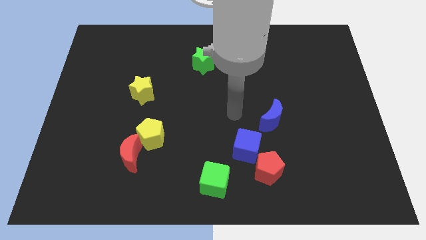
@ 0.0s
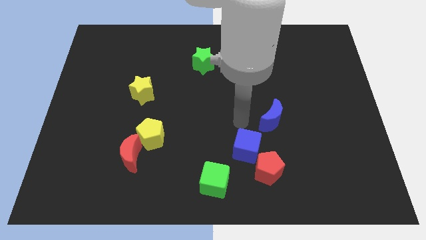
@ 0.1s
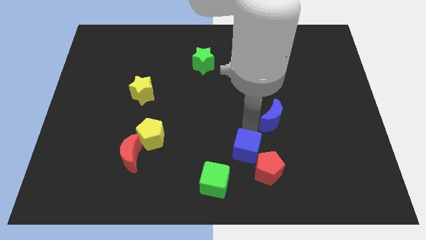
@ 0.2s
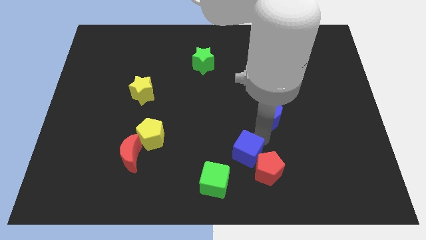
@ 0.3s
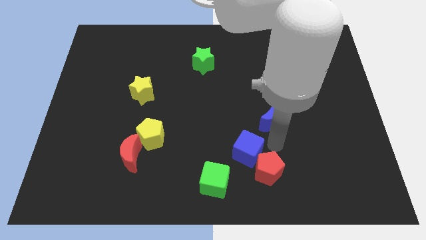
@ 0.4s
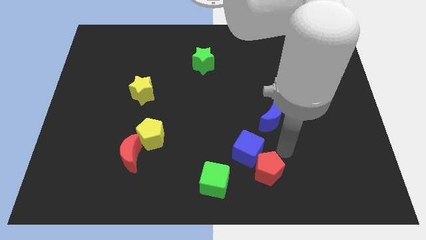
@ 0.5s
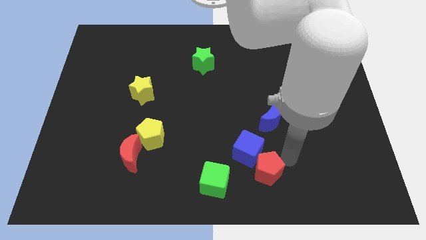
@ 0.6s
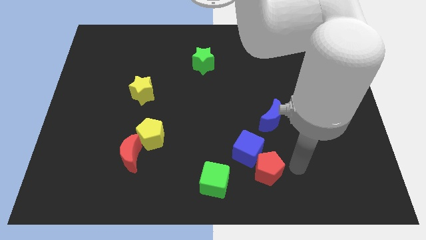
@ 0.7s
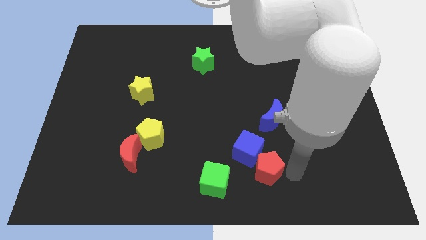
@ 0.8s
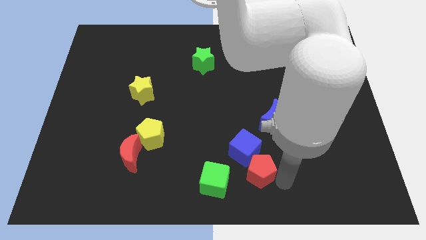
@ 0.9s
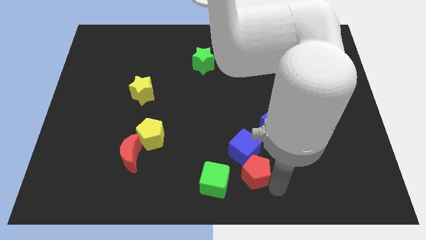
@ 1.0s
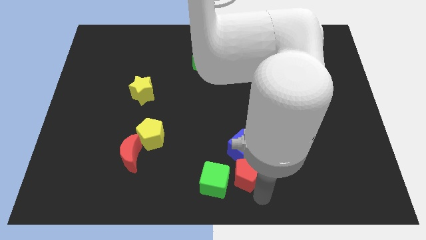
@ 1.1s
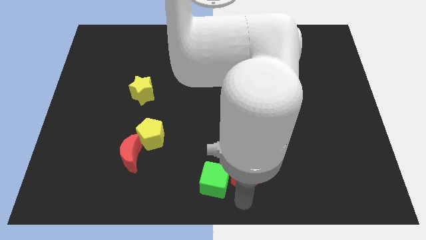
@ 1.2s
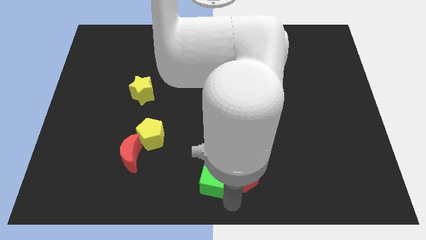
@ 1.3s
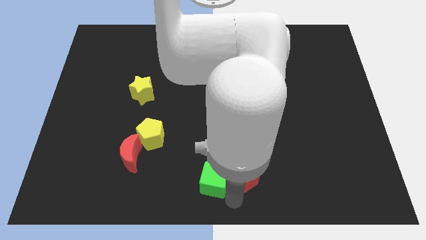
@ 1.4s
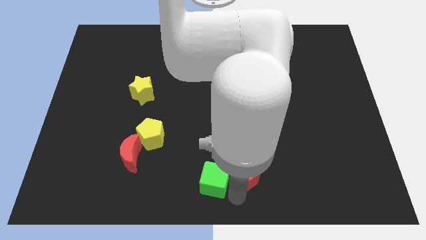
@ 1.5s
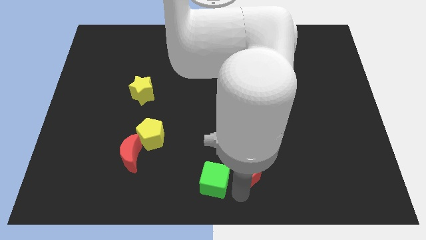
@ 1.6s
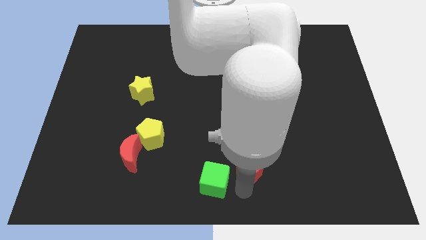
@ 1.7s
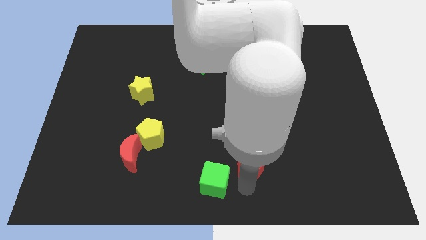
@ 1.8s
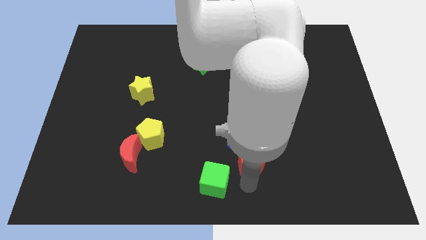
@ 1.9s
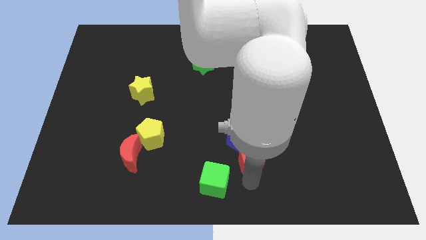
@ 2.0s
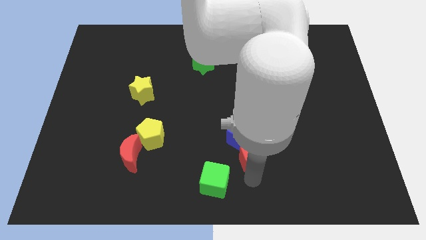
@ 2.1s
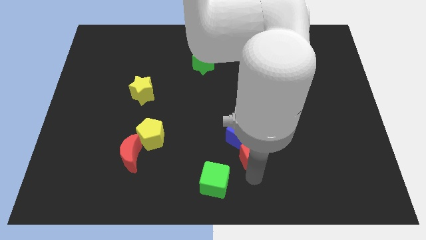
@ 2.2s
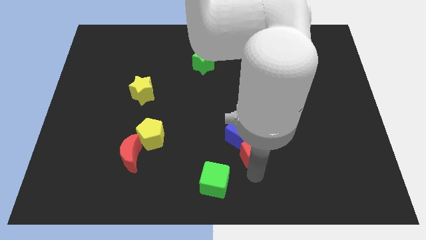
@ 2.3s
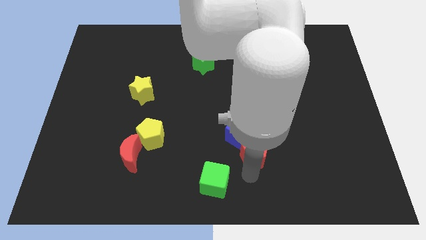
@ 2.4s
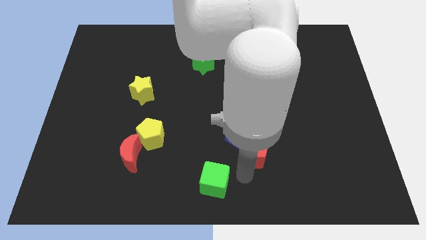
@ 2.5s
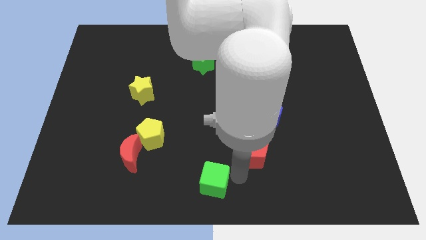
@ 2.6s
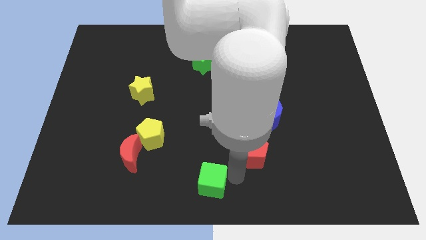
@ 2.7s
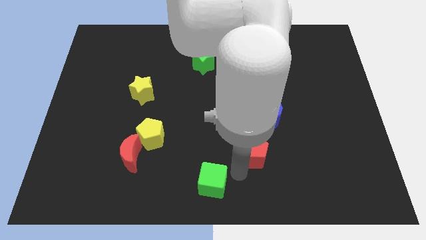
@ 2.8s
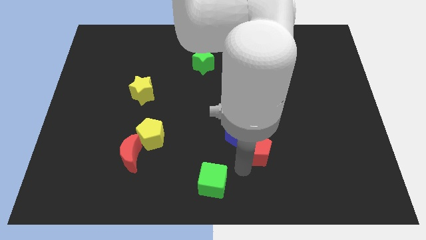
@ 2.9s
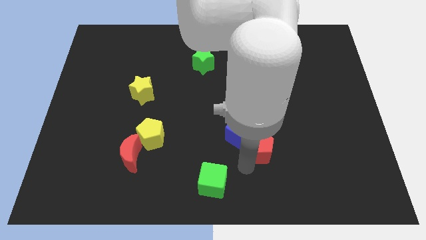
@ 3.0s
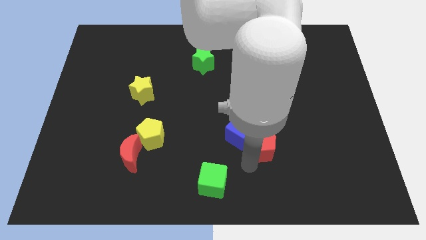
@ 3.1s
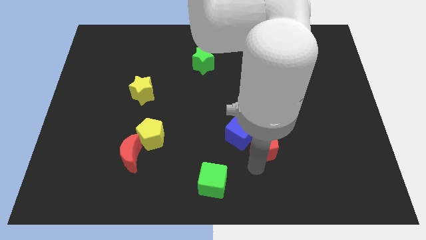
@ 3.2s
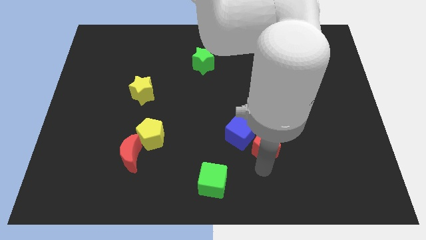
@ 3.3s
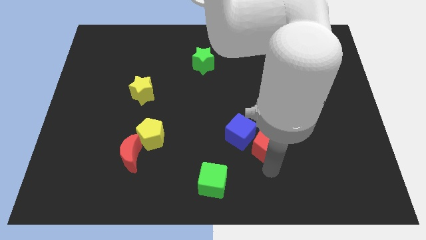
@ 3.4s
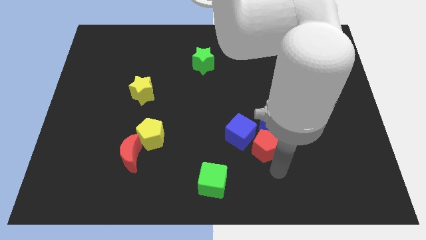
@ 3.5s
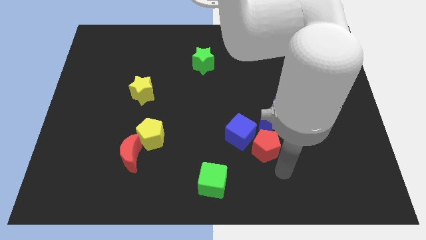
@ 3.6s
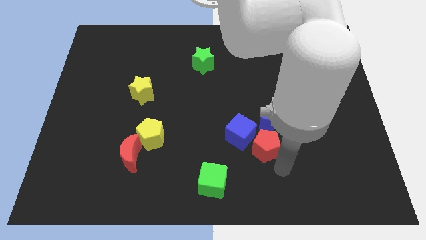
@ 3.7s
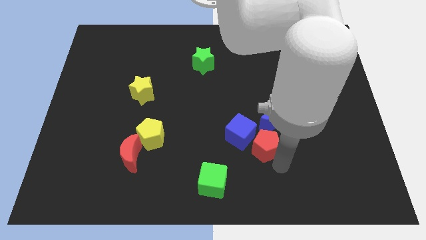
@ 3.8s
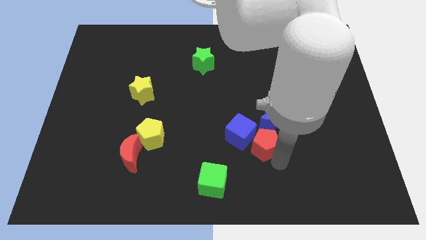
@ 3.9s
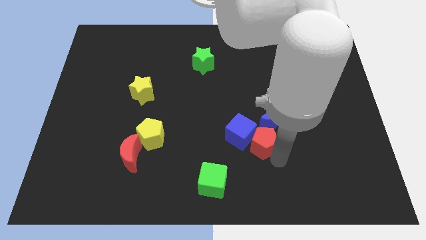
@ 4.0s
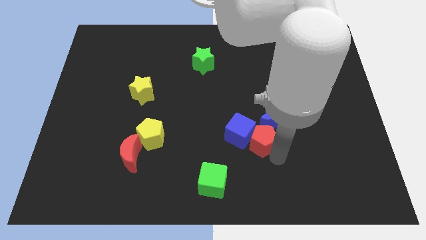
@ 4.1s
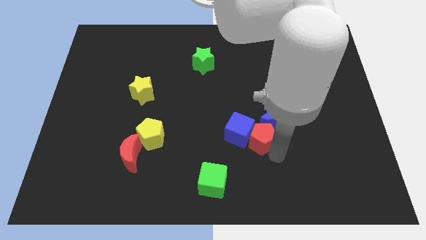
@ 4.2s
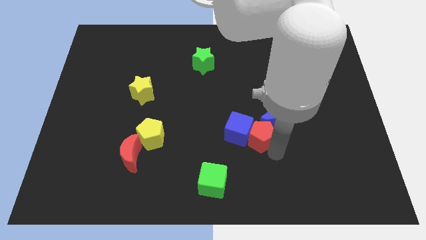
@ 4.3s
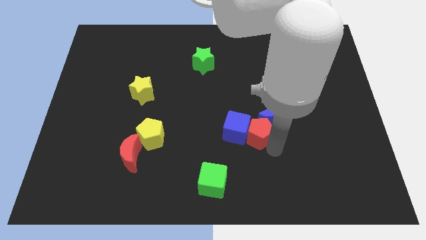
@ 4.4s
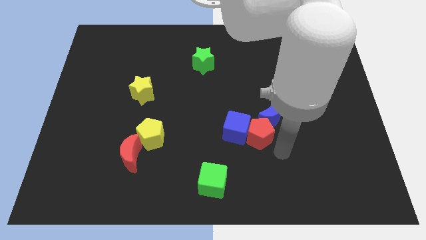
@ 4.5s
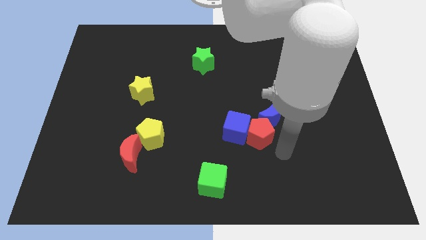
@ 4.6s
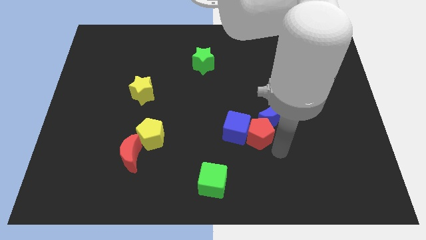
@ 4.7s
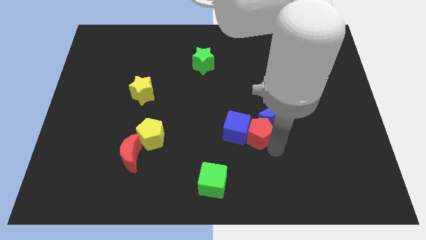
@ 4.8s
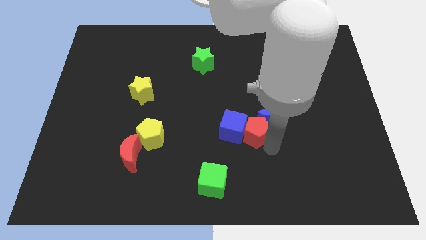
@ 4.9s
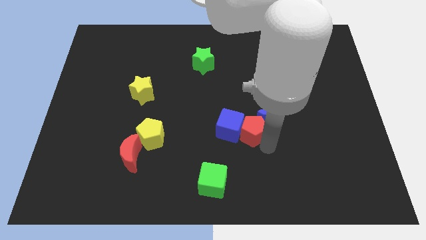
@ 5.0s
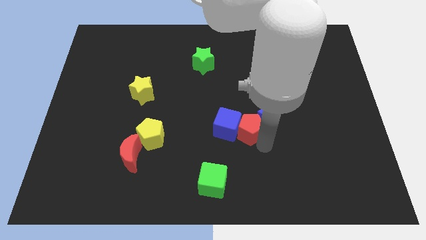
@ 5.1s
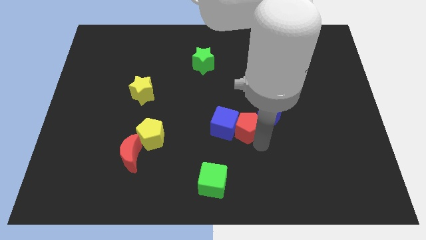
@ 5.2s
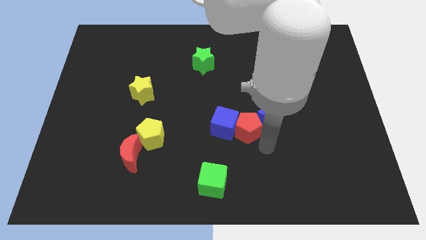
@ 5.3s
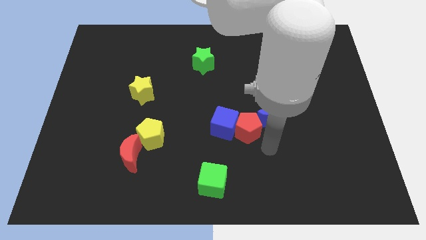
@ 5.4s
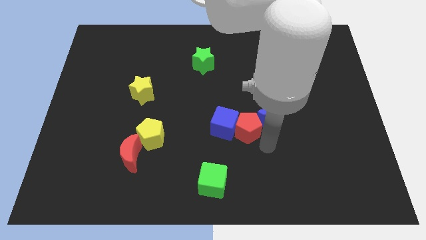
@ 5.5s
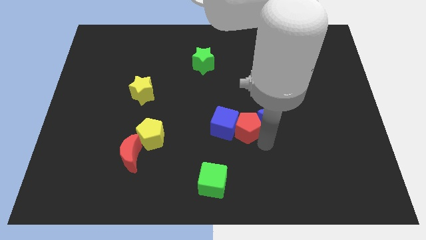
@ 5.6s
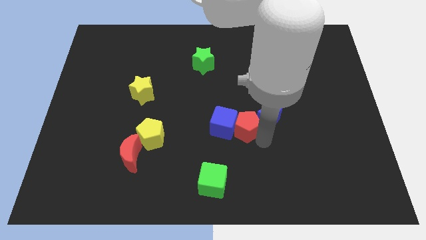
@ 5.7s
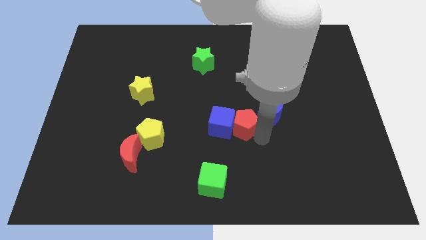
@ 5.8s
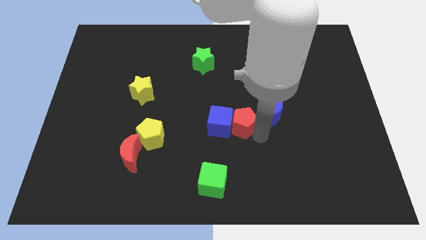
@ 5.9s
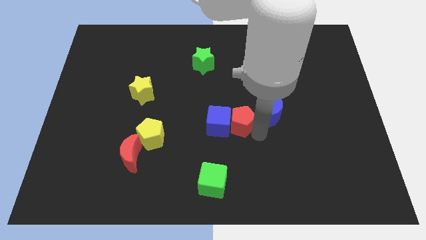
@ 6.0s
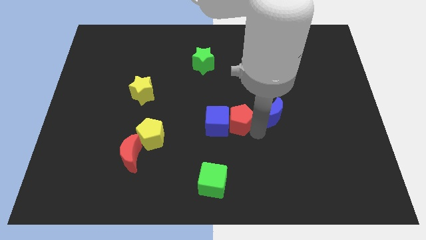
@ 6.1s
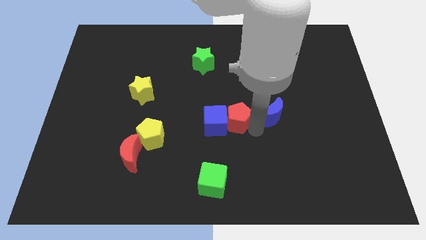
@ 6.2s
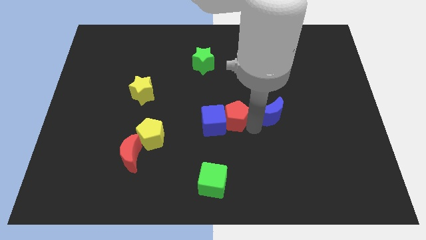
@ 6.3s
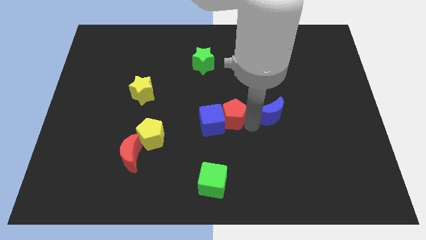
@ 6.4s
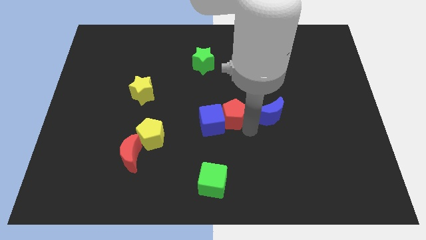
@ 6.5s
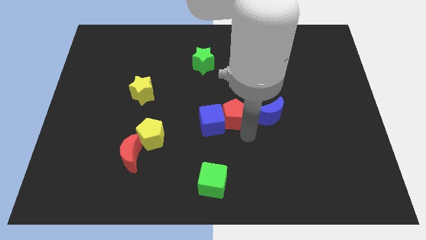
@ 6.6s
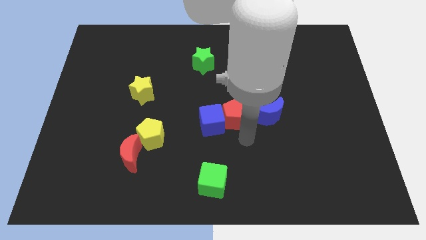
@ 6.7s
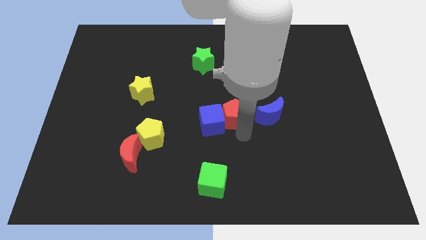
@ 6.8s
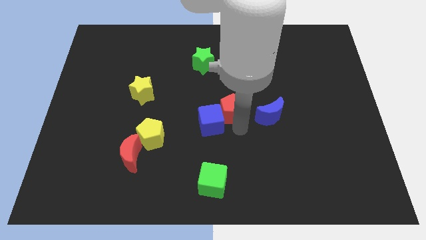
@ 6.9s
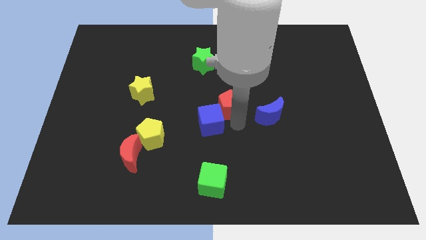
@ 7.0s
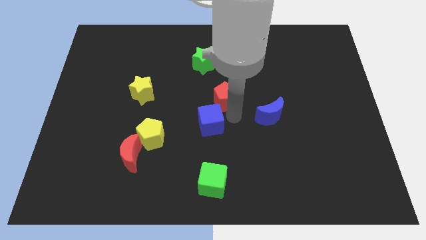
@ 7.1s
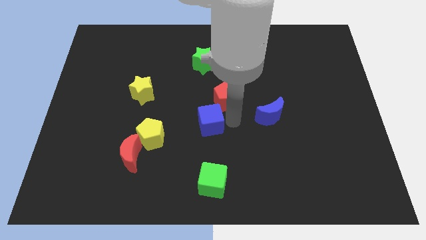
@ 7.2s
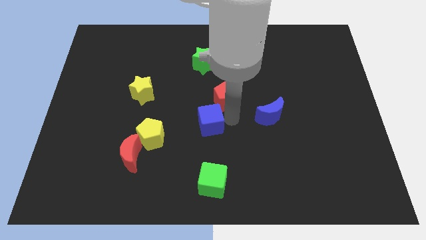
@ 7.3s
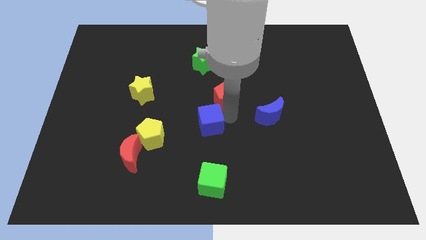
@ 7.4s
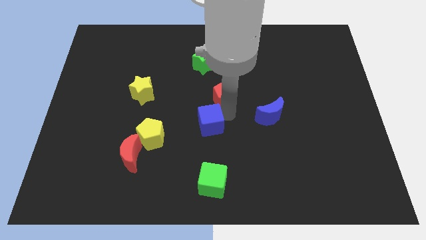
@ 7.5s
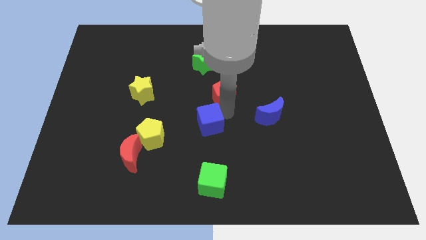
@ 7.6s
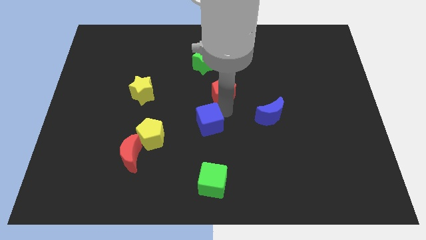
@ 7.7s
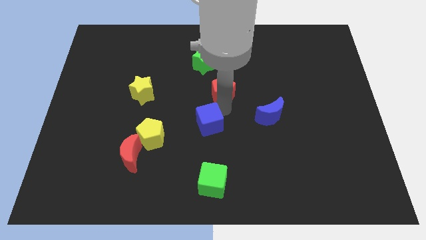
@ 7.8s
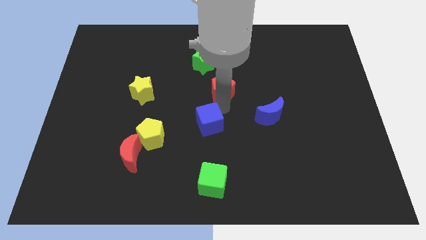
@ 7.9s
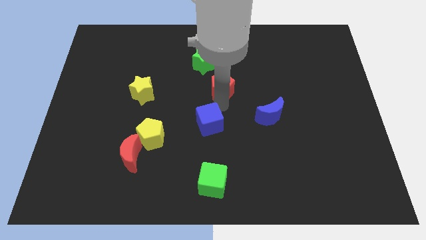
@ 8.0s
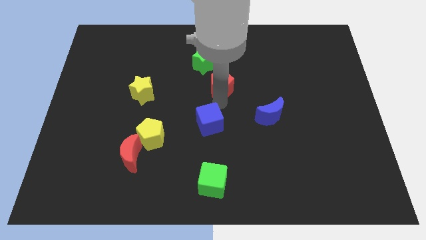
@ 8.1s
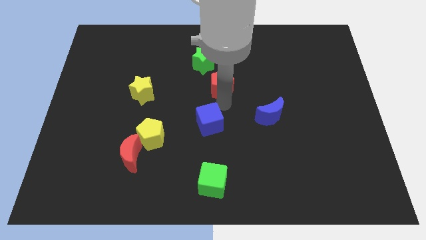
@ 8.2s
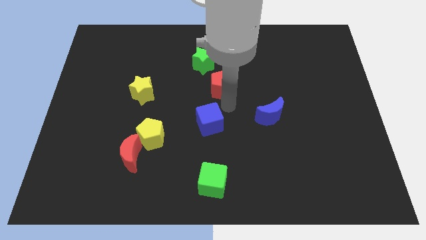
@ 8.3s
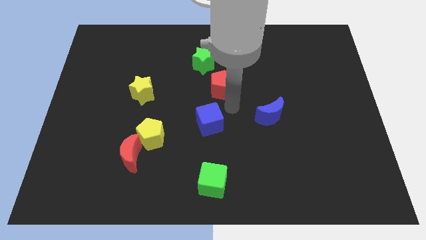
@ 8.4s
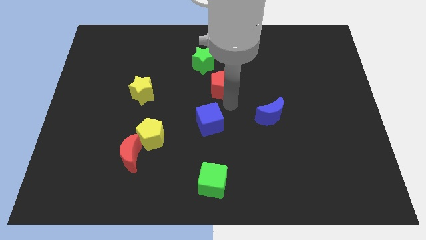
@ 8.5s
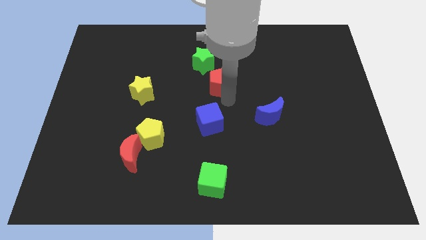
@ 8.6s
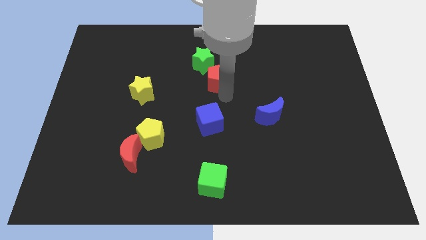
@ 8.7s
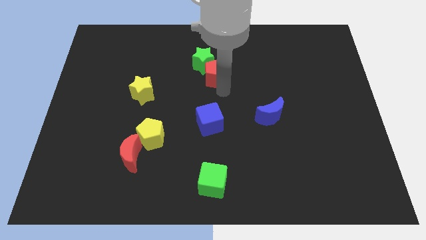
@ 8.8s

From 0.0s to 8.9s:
move the red pentagon next to the green star
